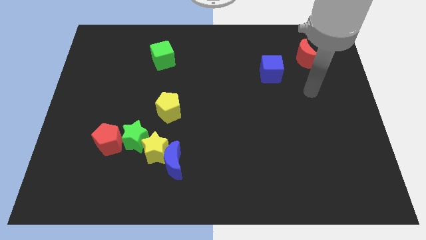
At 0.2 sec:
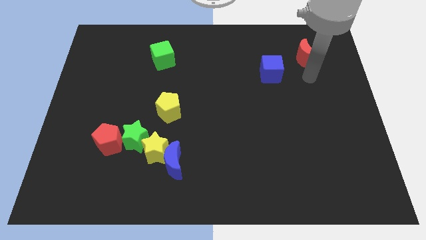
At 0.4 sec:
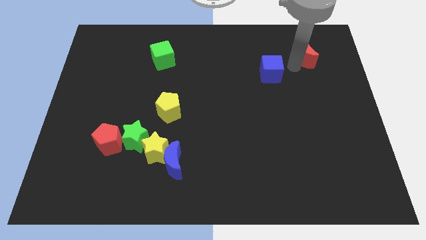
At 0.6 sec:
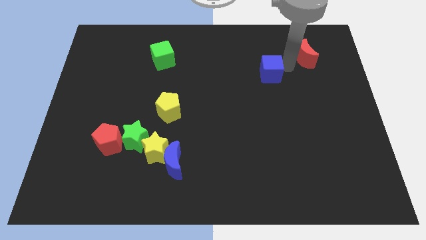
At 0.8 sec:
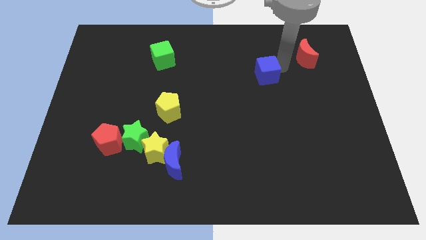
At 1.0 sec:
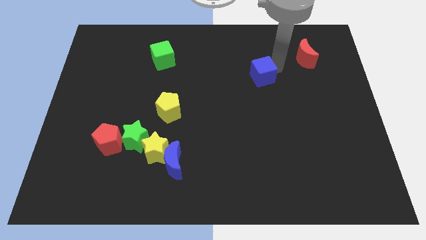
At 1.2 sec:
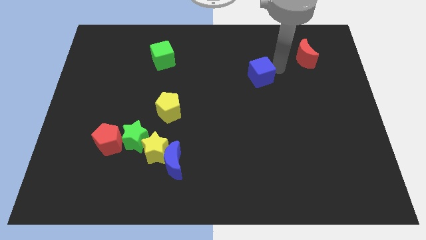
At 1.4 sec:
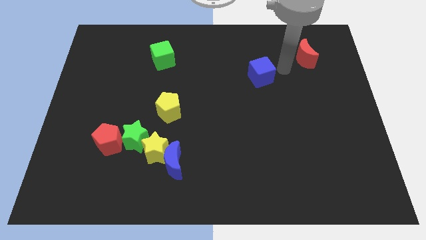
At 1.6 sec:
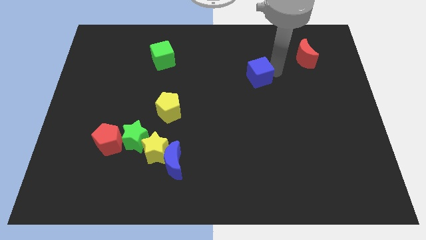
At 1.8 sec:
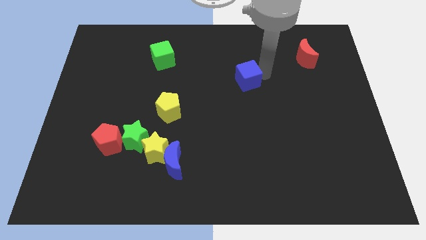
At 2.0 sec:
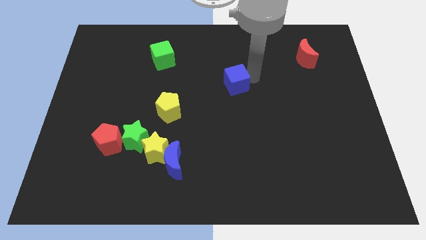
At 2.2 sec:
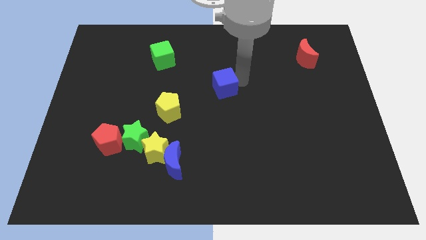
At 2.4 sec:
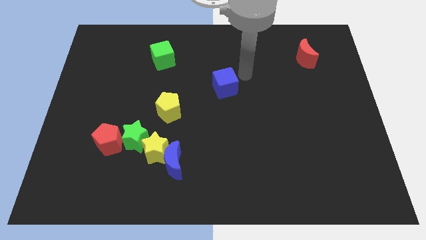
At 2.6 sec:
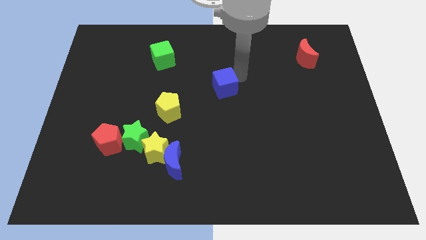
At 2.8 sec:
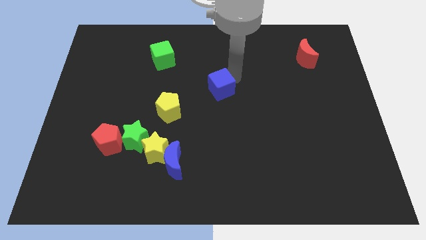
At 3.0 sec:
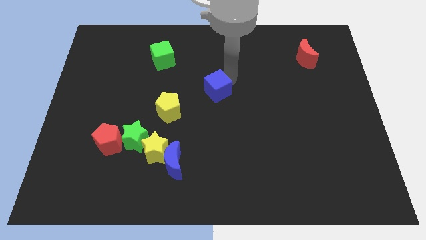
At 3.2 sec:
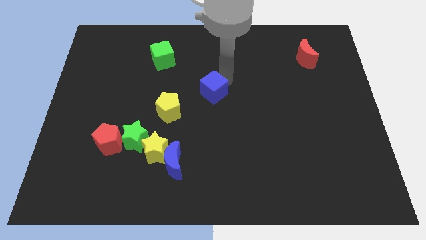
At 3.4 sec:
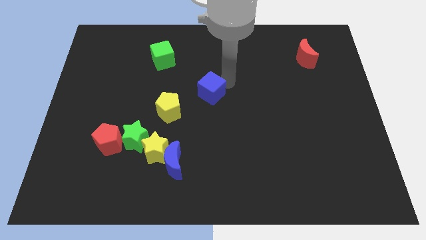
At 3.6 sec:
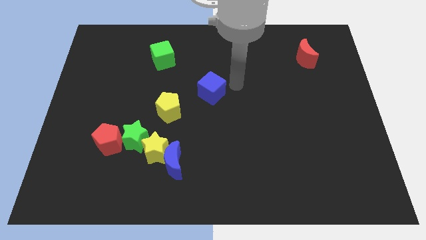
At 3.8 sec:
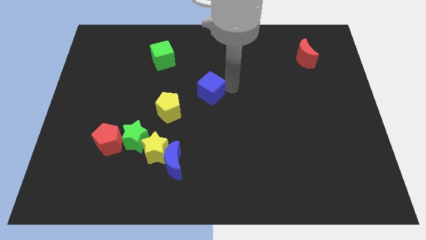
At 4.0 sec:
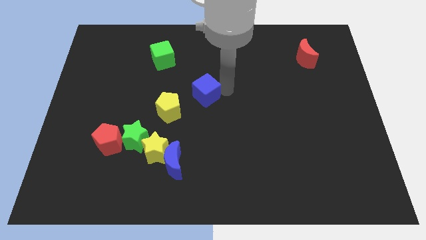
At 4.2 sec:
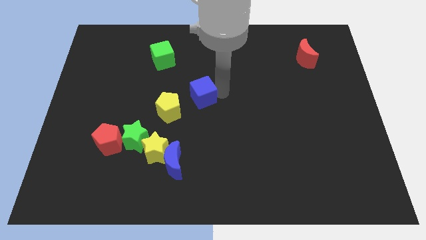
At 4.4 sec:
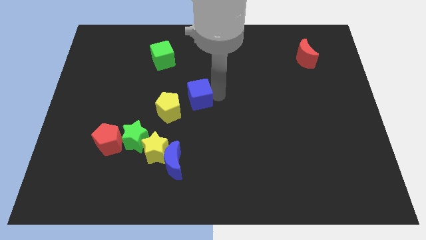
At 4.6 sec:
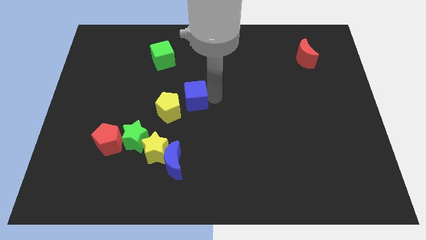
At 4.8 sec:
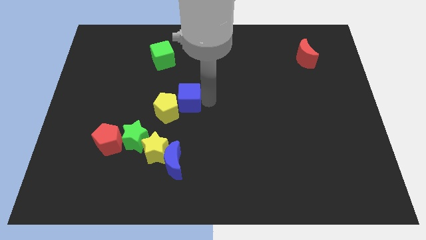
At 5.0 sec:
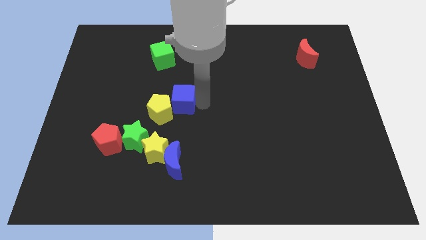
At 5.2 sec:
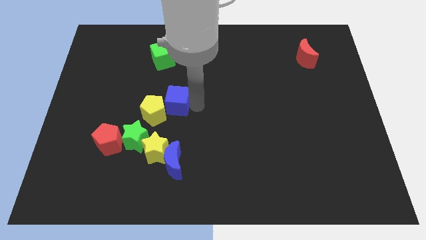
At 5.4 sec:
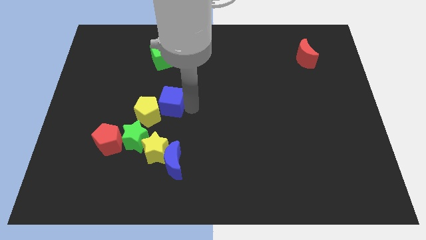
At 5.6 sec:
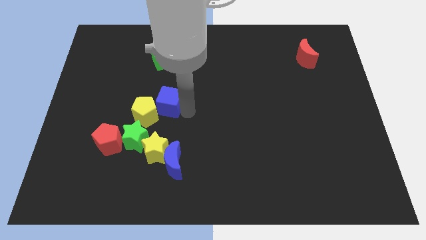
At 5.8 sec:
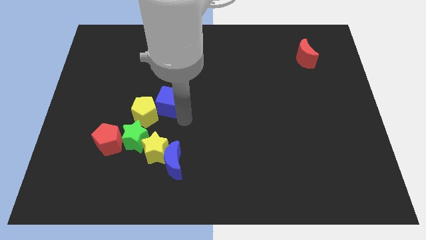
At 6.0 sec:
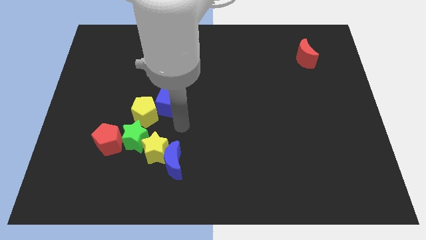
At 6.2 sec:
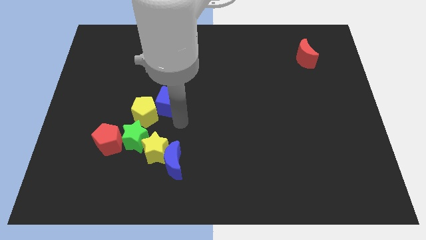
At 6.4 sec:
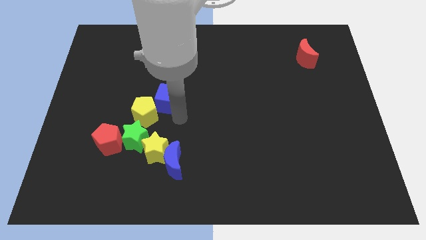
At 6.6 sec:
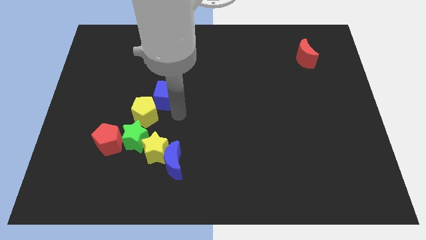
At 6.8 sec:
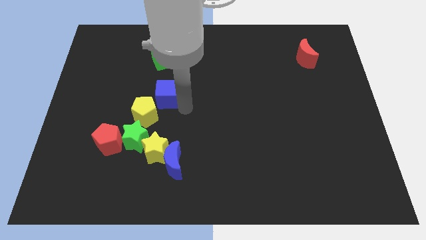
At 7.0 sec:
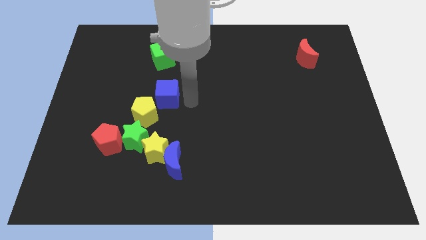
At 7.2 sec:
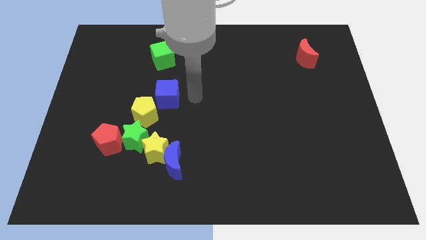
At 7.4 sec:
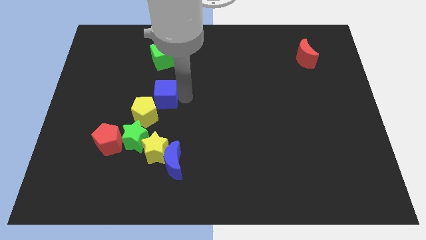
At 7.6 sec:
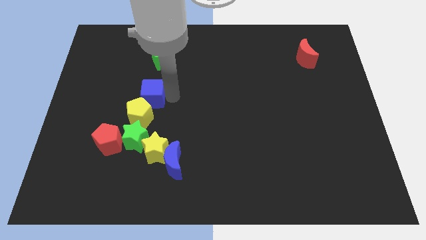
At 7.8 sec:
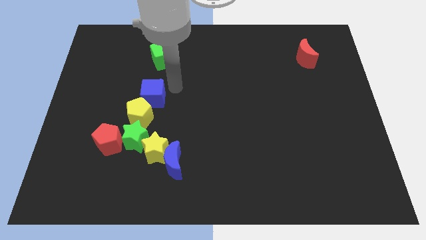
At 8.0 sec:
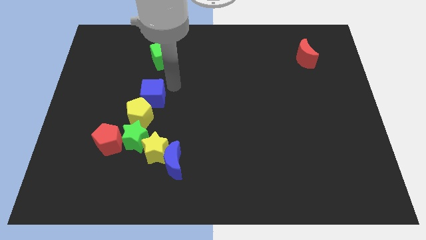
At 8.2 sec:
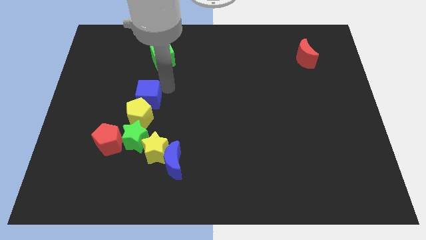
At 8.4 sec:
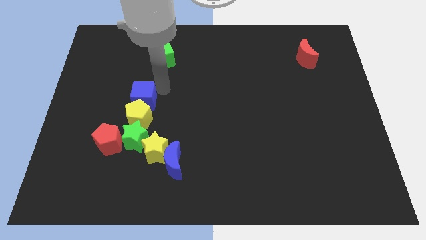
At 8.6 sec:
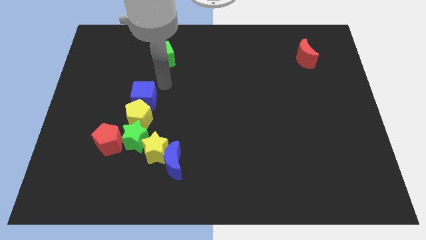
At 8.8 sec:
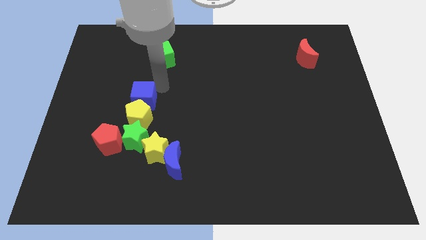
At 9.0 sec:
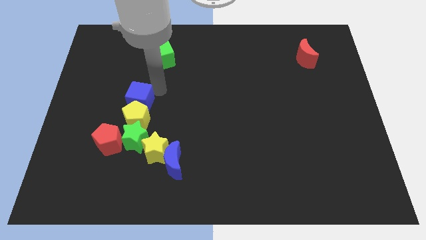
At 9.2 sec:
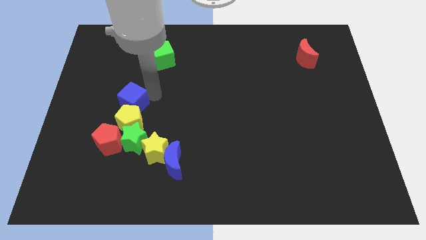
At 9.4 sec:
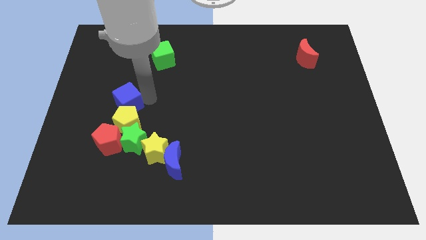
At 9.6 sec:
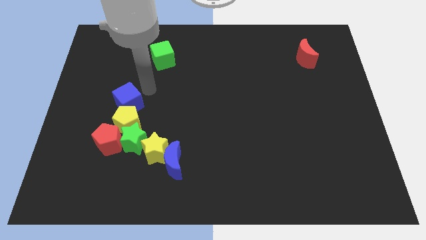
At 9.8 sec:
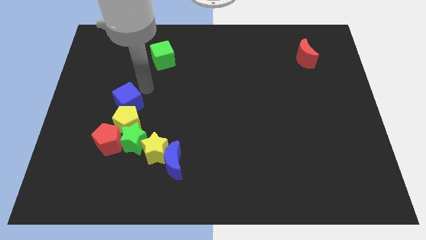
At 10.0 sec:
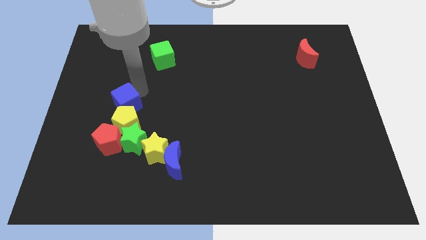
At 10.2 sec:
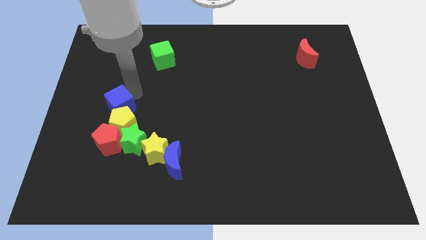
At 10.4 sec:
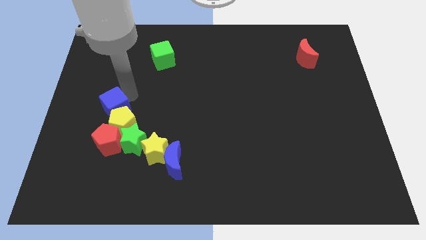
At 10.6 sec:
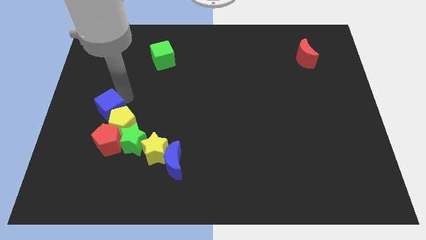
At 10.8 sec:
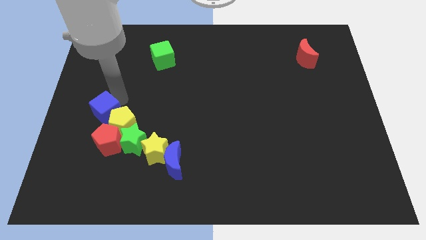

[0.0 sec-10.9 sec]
move the blue cube to the top left side of the red pentagon

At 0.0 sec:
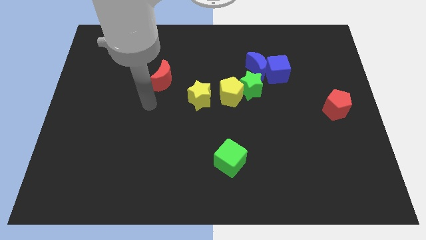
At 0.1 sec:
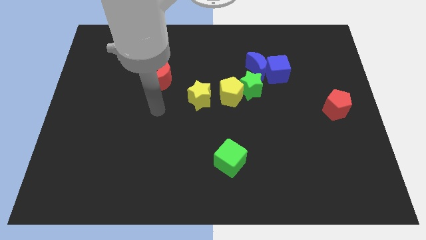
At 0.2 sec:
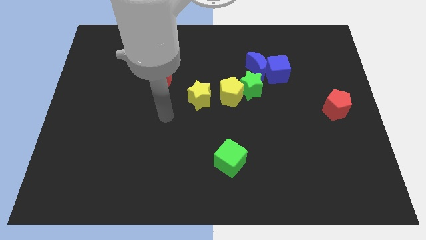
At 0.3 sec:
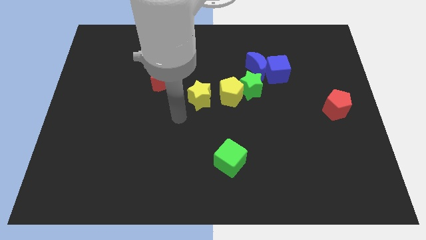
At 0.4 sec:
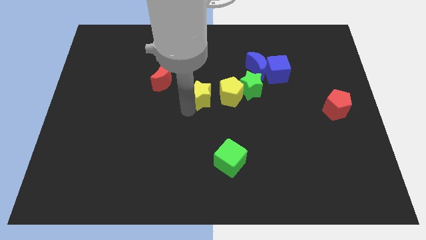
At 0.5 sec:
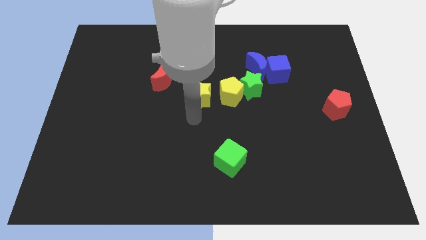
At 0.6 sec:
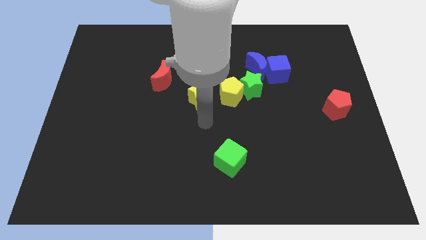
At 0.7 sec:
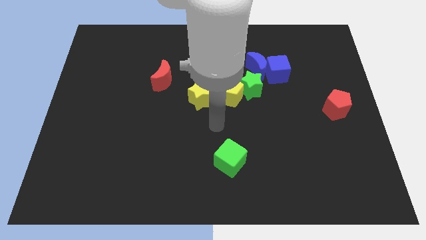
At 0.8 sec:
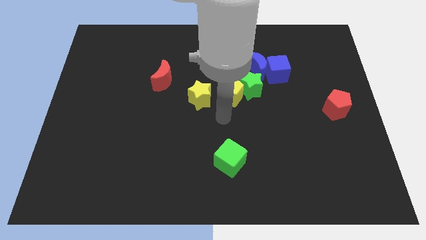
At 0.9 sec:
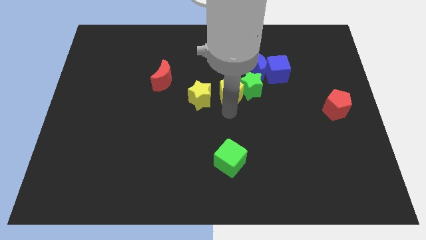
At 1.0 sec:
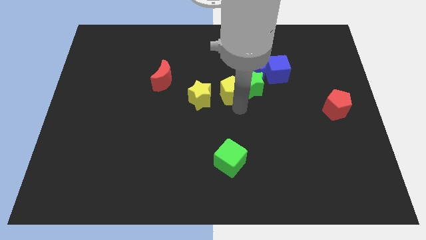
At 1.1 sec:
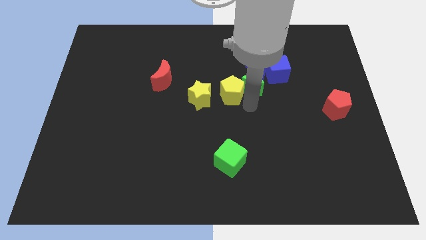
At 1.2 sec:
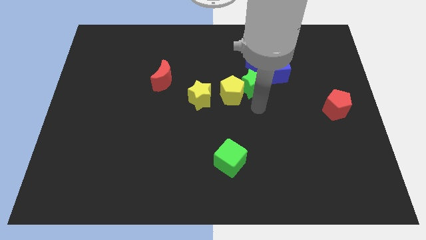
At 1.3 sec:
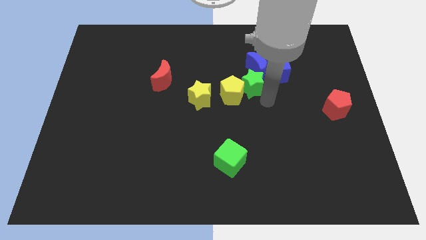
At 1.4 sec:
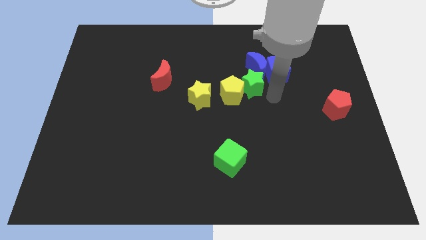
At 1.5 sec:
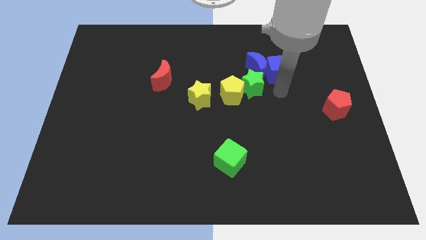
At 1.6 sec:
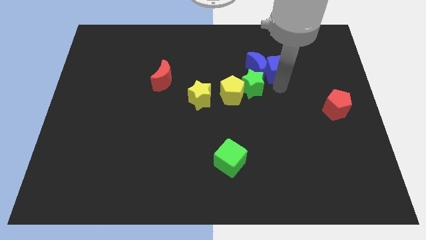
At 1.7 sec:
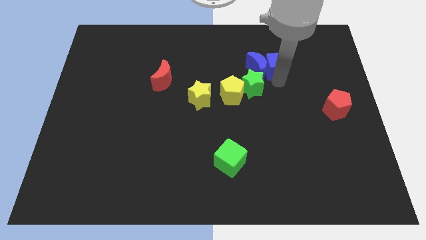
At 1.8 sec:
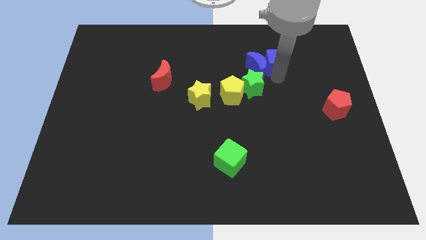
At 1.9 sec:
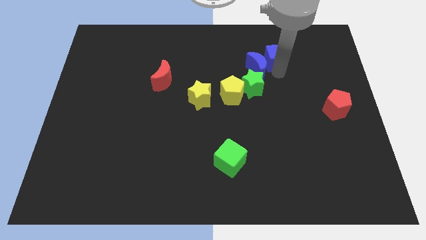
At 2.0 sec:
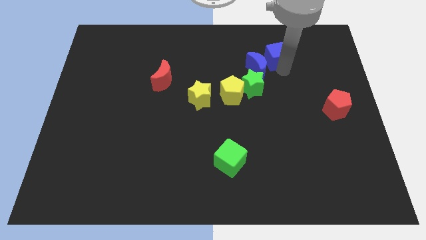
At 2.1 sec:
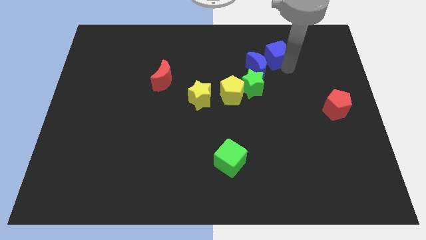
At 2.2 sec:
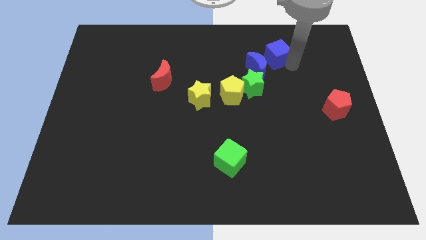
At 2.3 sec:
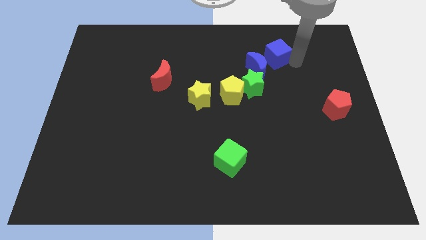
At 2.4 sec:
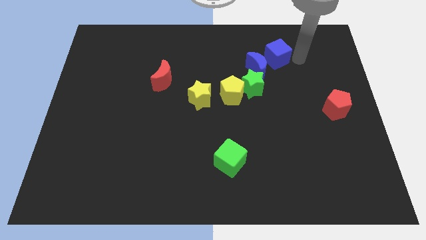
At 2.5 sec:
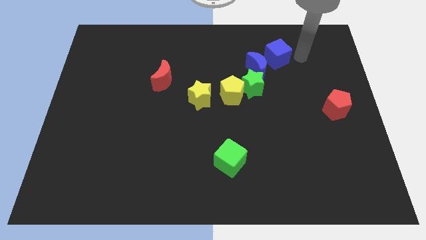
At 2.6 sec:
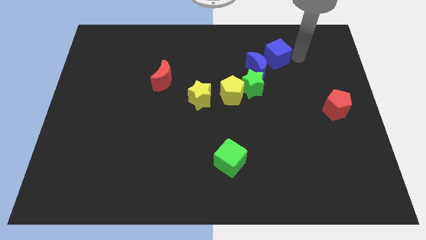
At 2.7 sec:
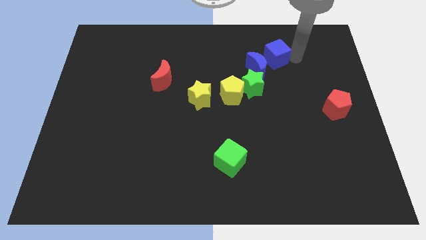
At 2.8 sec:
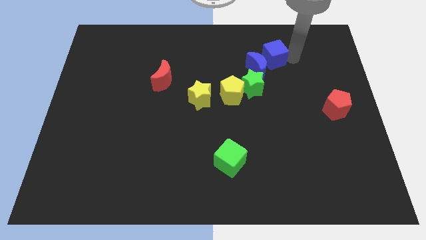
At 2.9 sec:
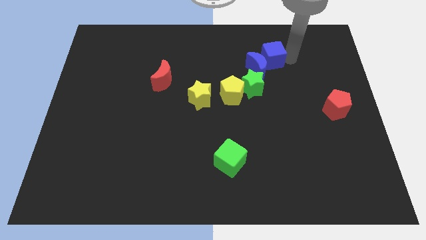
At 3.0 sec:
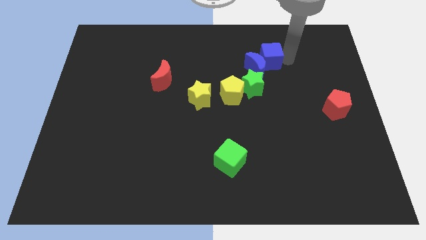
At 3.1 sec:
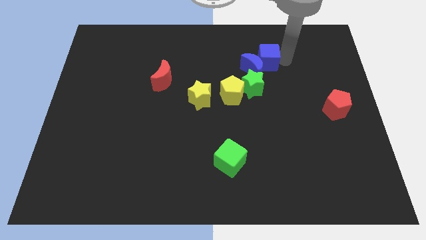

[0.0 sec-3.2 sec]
put the blue cube to the top of the green star
